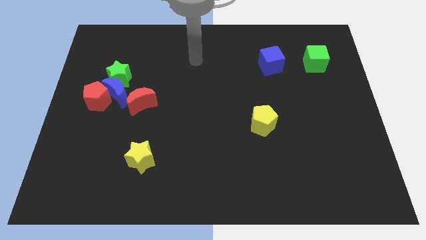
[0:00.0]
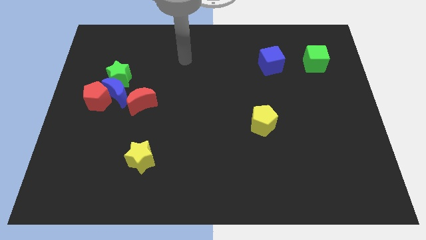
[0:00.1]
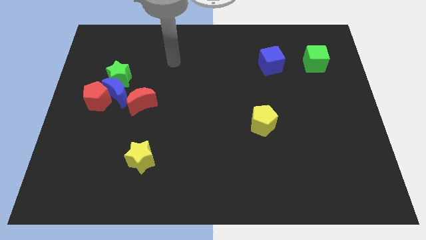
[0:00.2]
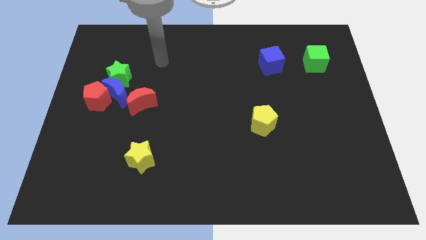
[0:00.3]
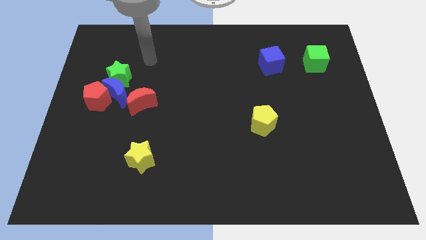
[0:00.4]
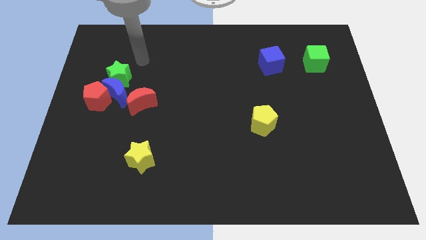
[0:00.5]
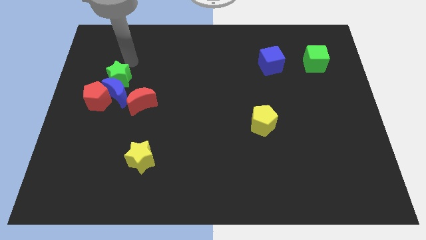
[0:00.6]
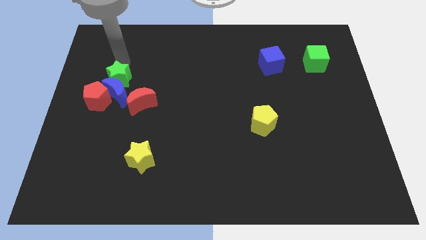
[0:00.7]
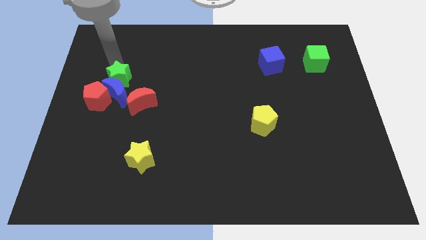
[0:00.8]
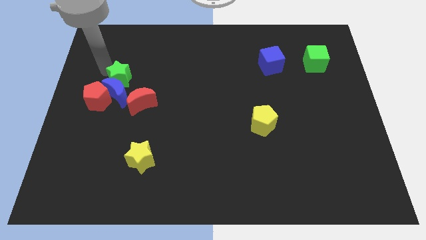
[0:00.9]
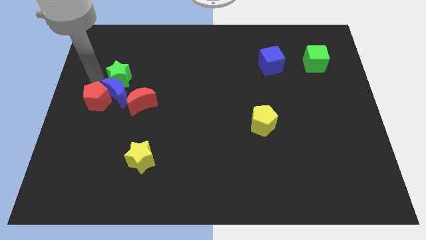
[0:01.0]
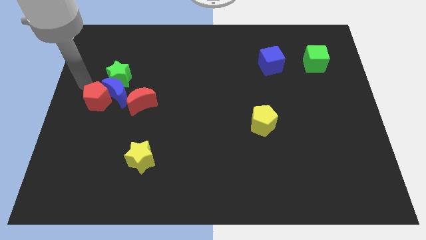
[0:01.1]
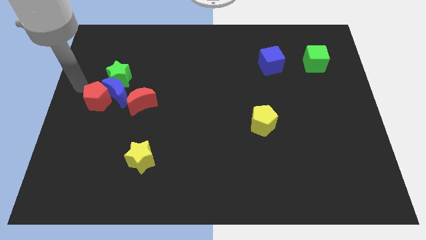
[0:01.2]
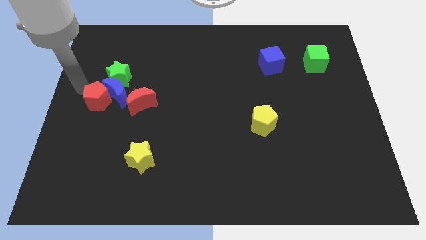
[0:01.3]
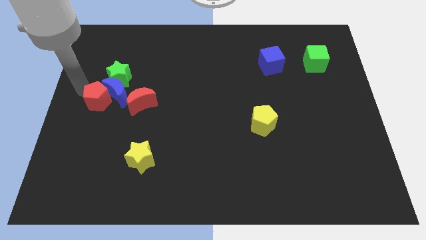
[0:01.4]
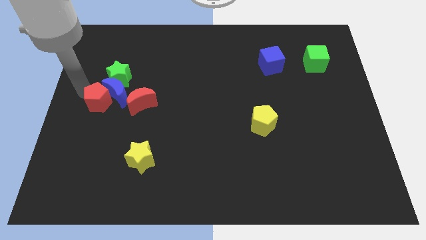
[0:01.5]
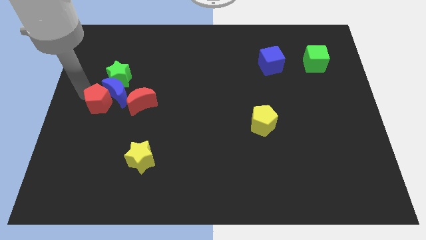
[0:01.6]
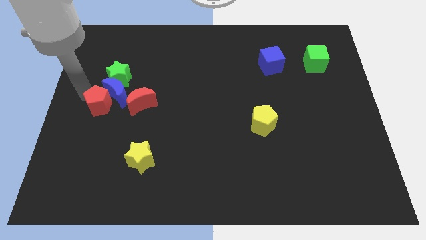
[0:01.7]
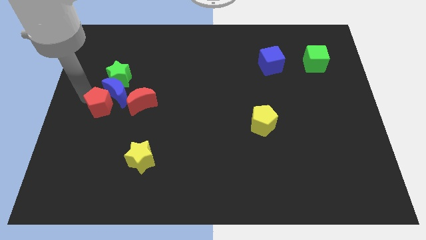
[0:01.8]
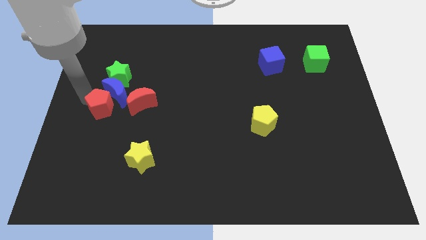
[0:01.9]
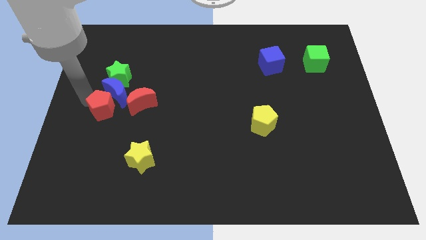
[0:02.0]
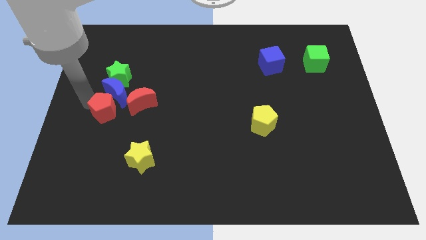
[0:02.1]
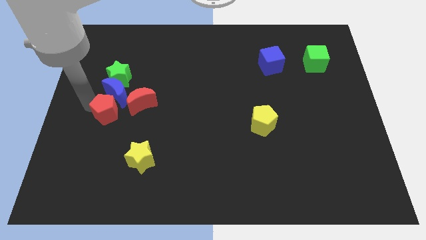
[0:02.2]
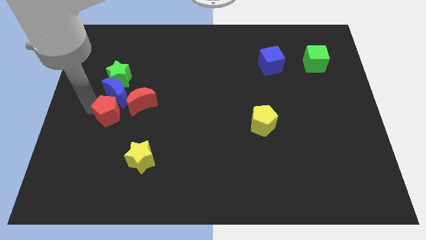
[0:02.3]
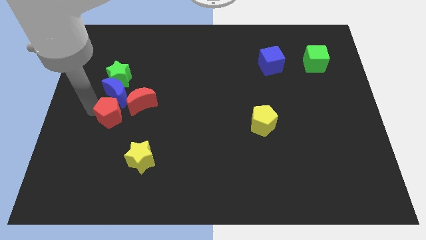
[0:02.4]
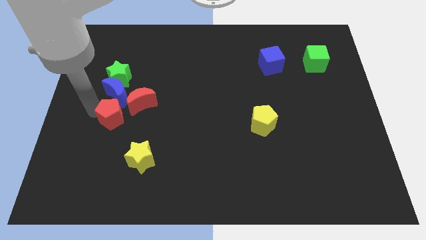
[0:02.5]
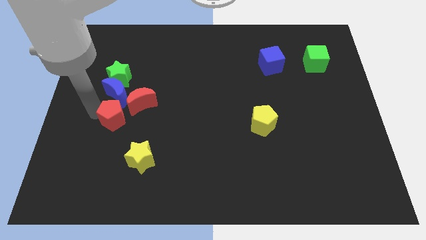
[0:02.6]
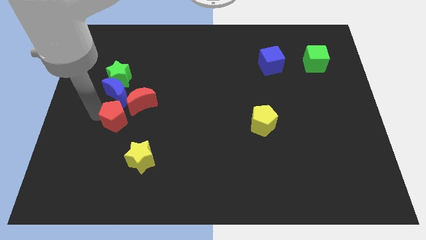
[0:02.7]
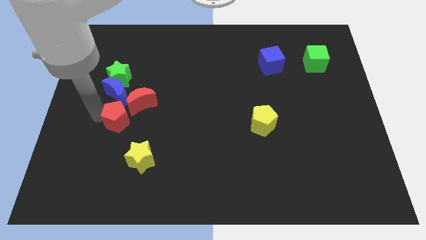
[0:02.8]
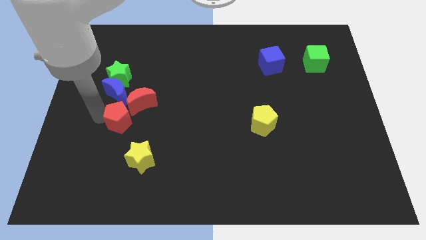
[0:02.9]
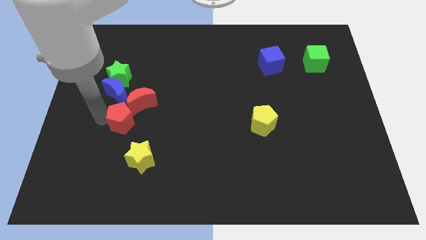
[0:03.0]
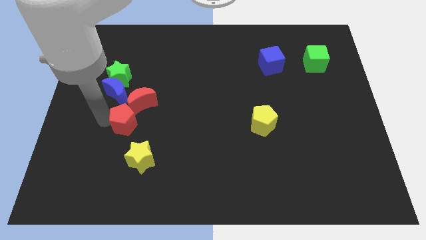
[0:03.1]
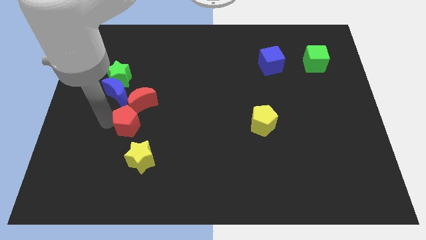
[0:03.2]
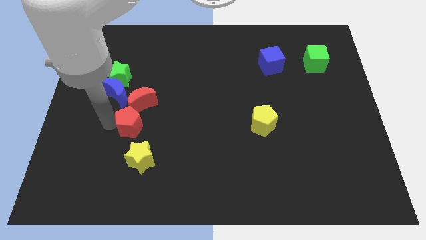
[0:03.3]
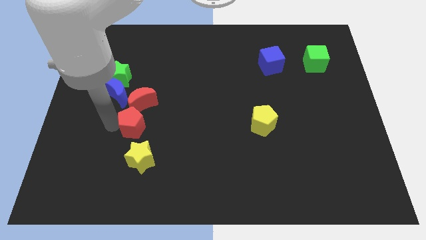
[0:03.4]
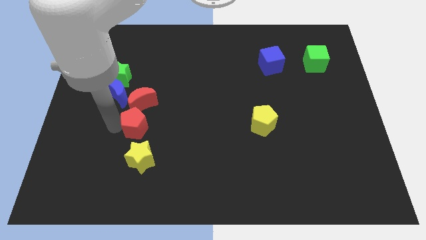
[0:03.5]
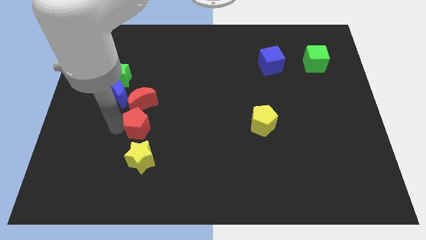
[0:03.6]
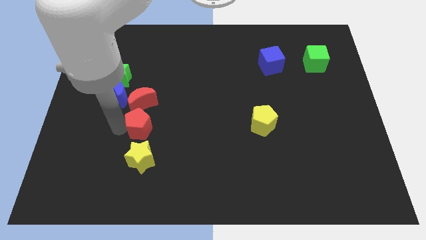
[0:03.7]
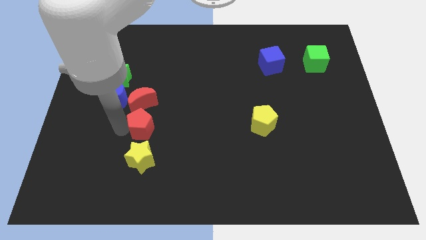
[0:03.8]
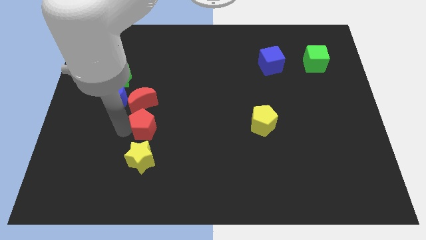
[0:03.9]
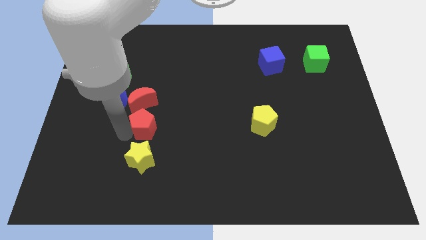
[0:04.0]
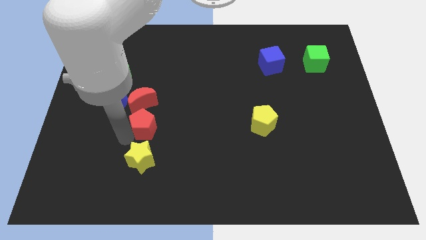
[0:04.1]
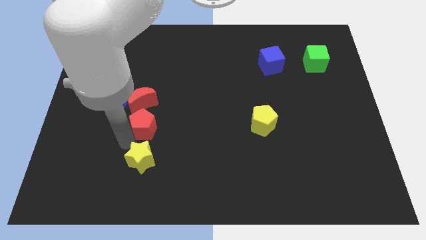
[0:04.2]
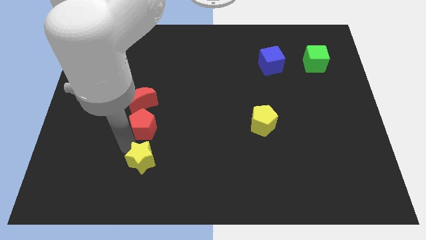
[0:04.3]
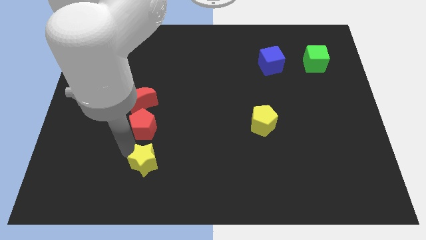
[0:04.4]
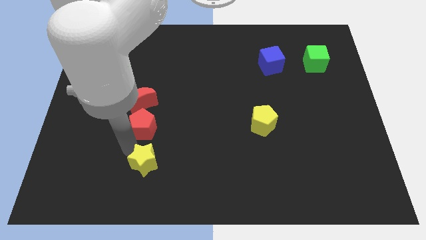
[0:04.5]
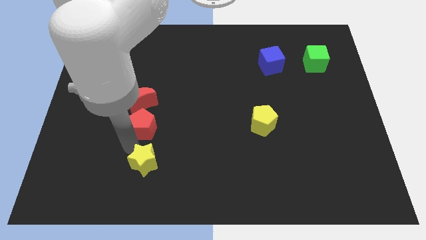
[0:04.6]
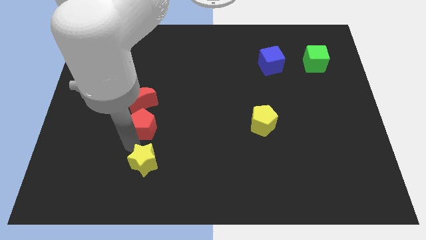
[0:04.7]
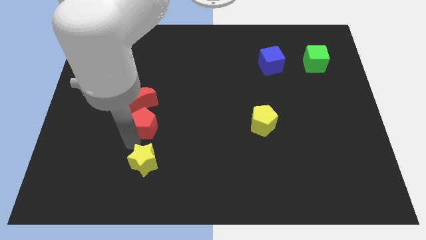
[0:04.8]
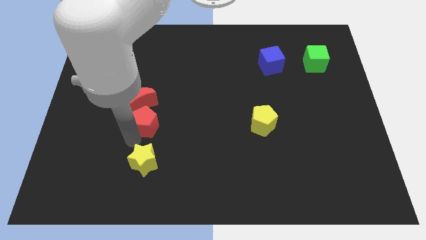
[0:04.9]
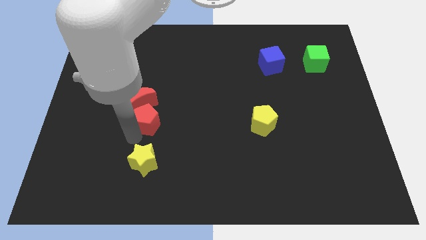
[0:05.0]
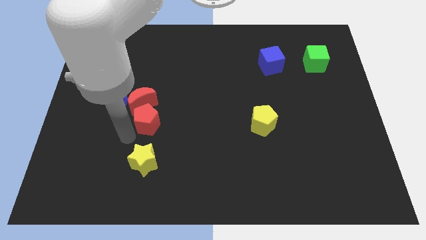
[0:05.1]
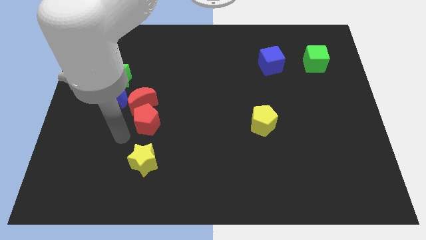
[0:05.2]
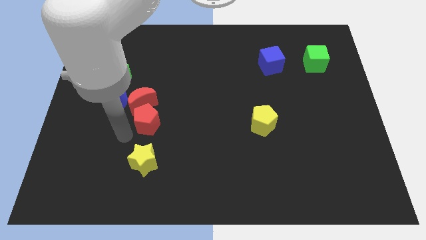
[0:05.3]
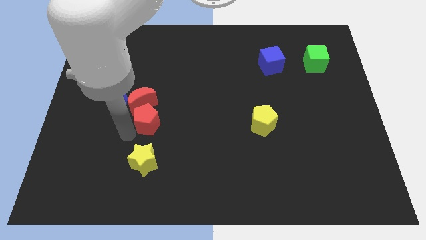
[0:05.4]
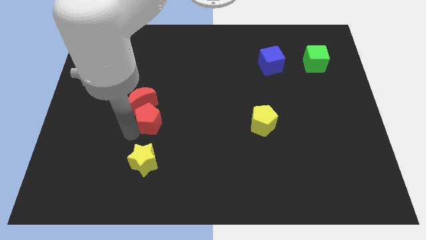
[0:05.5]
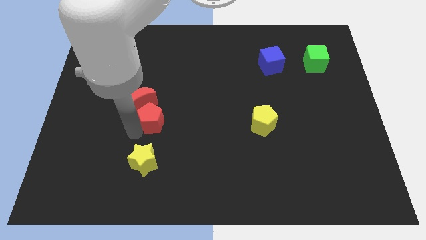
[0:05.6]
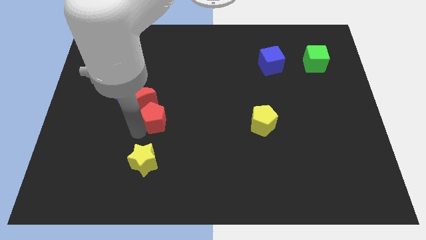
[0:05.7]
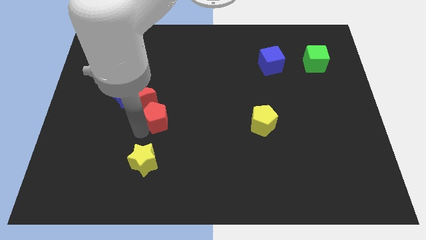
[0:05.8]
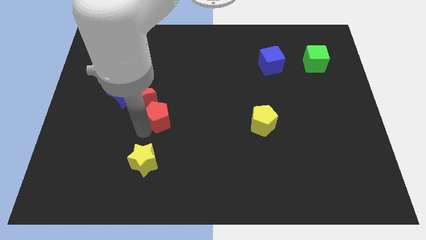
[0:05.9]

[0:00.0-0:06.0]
put the red pentagon right of the red moon

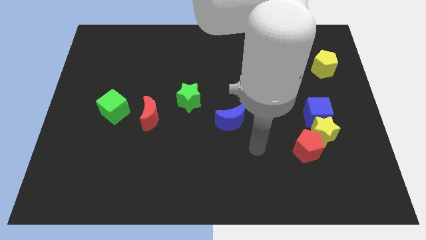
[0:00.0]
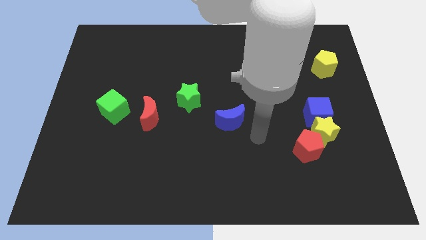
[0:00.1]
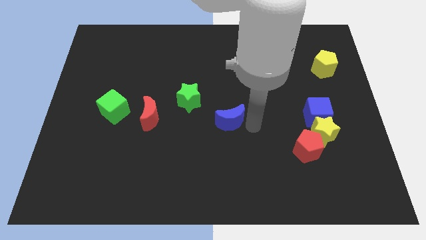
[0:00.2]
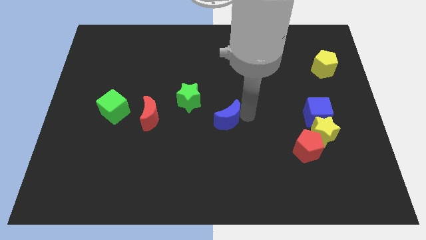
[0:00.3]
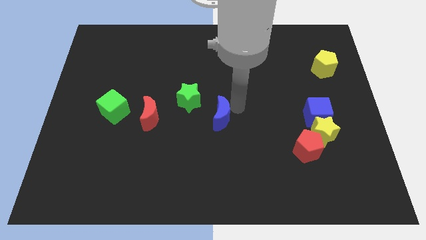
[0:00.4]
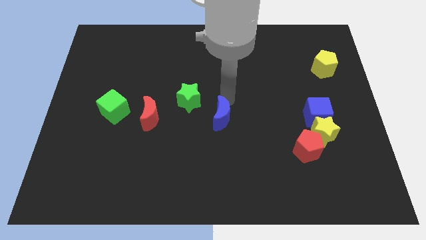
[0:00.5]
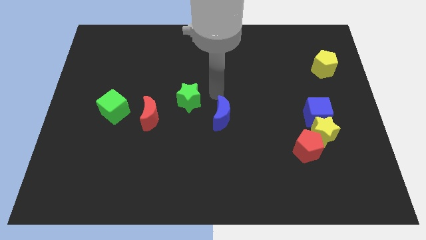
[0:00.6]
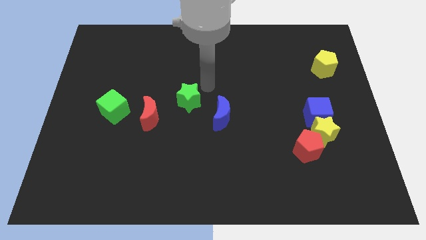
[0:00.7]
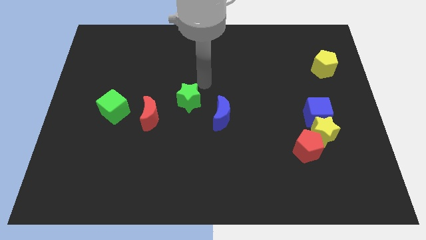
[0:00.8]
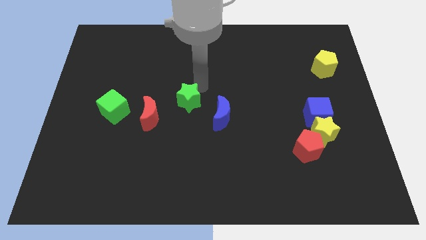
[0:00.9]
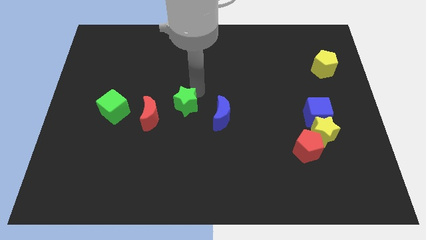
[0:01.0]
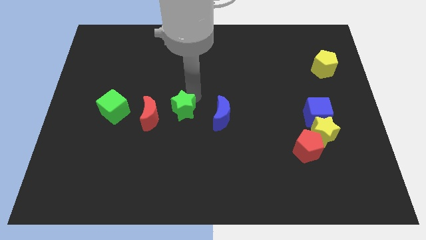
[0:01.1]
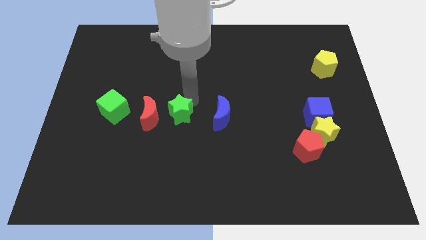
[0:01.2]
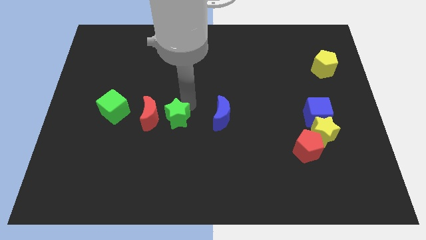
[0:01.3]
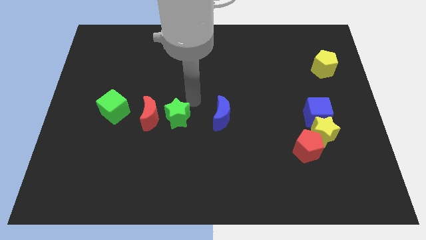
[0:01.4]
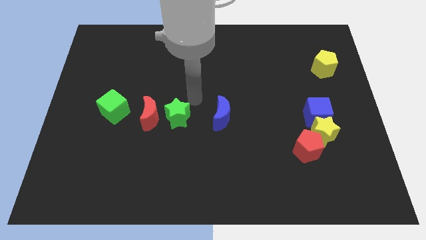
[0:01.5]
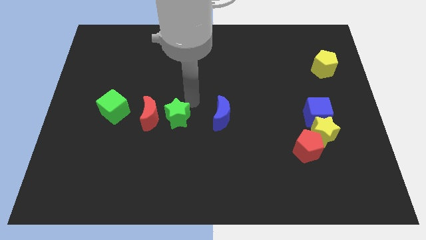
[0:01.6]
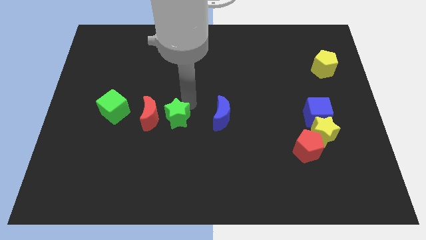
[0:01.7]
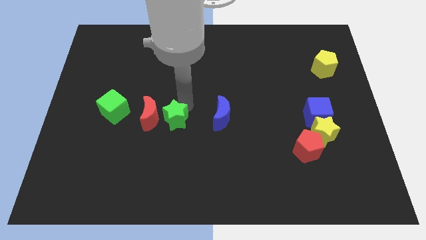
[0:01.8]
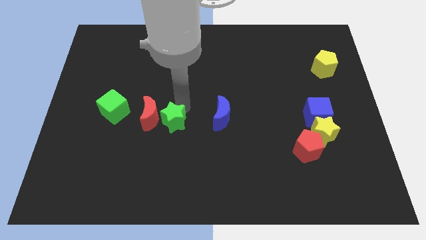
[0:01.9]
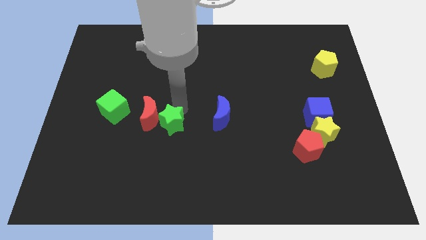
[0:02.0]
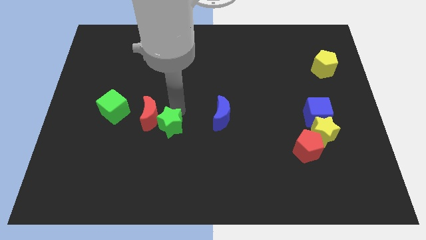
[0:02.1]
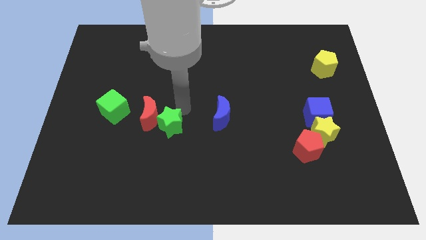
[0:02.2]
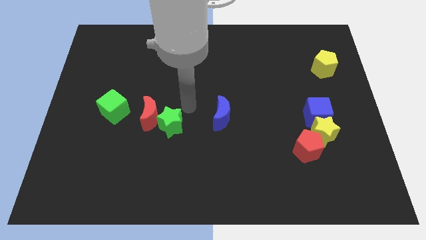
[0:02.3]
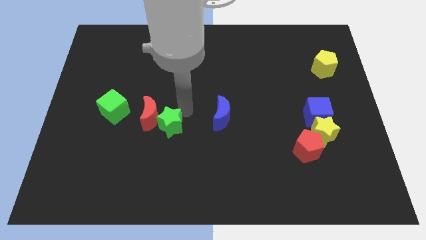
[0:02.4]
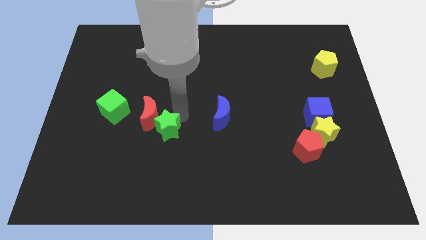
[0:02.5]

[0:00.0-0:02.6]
put the green star to the bottom of the red moon
